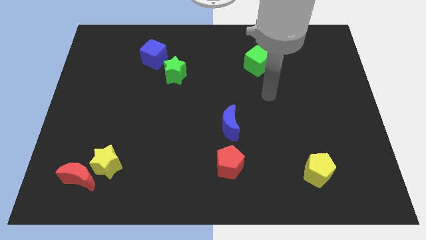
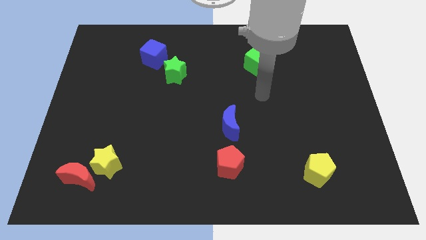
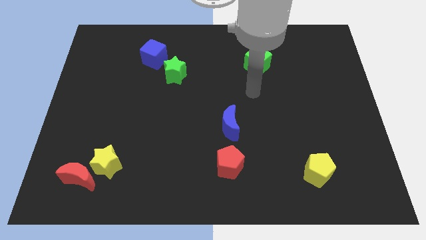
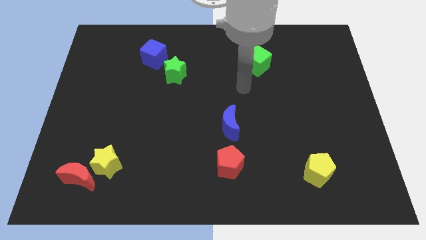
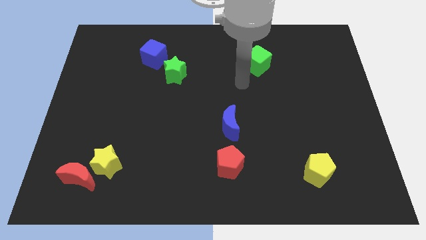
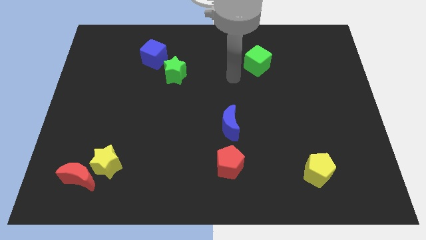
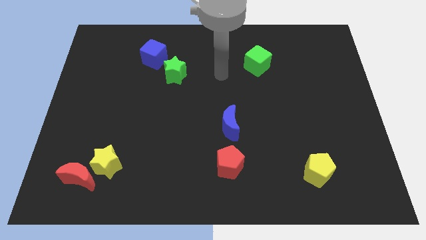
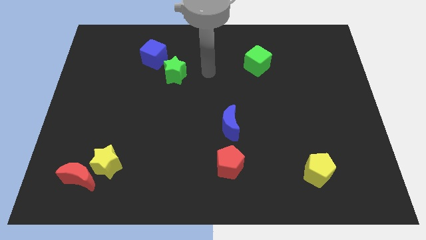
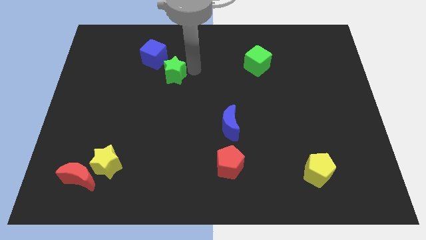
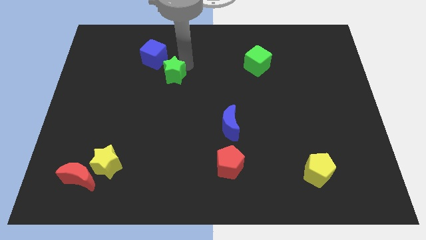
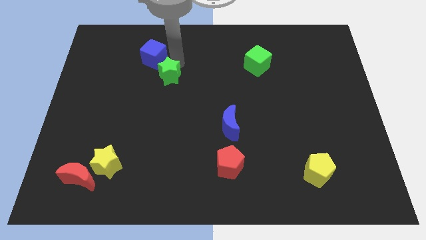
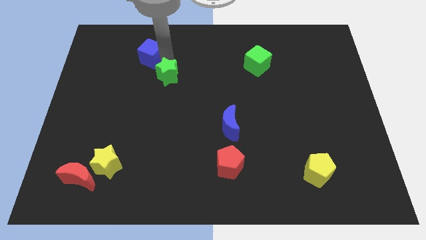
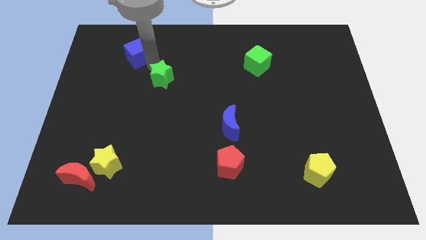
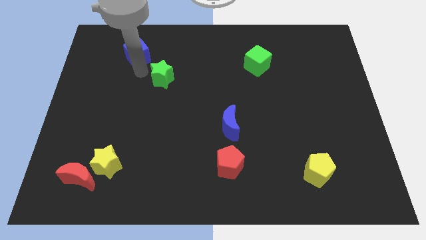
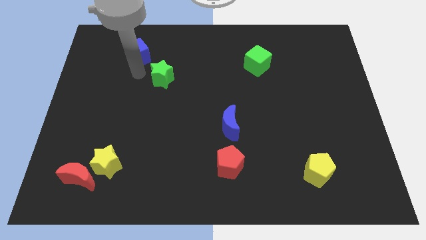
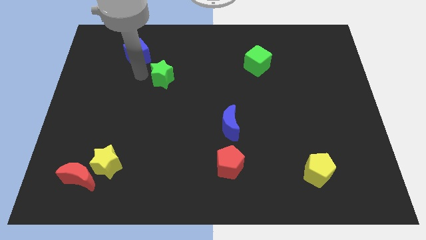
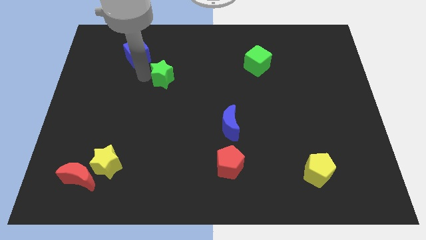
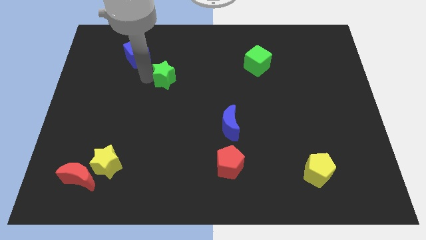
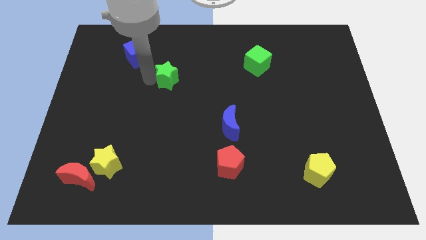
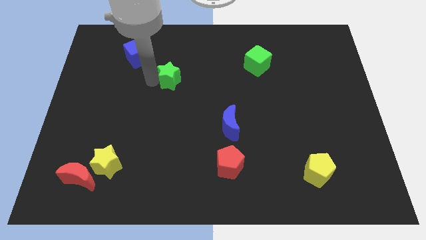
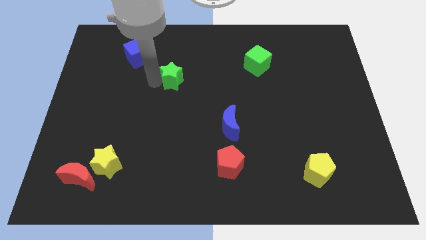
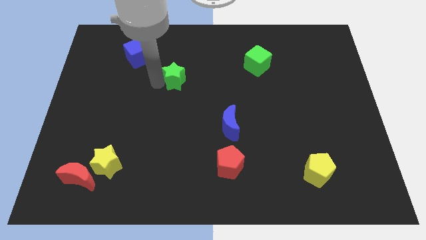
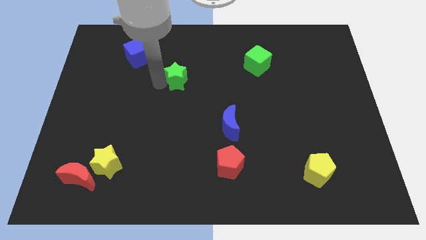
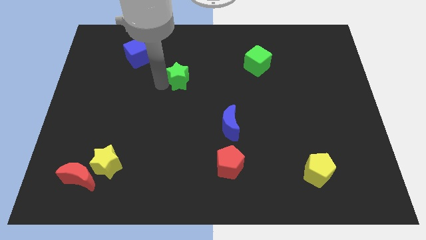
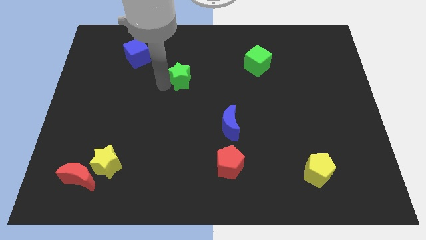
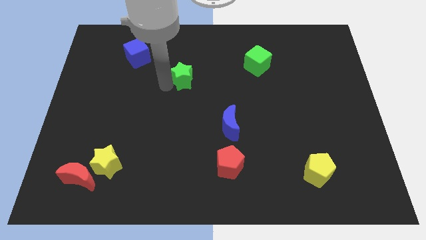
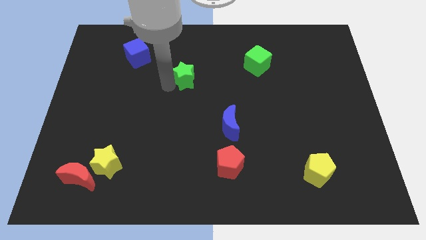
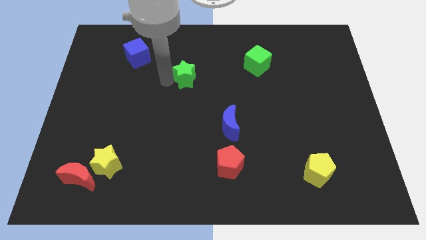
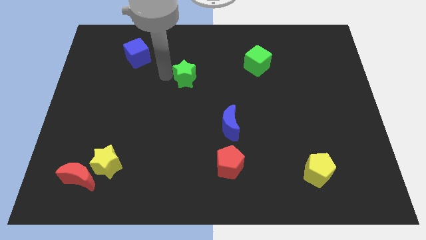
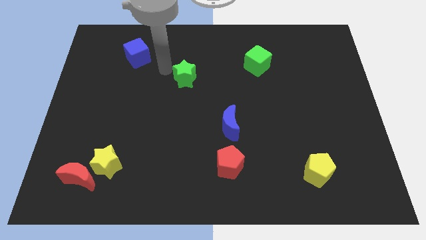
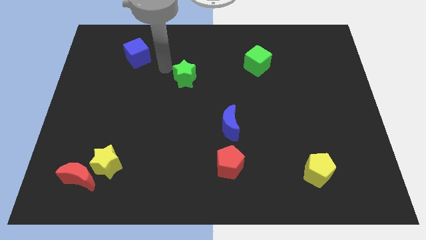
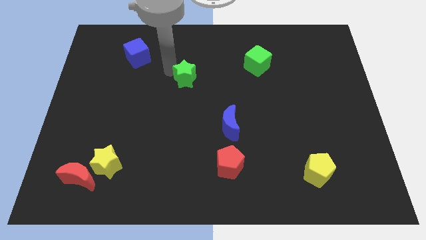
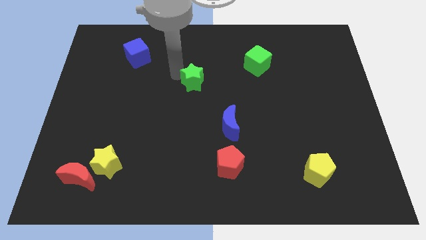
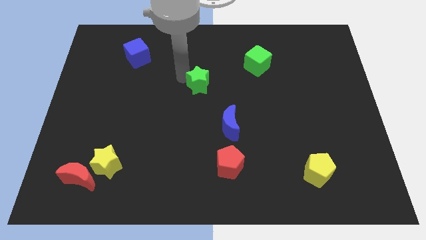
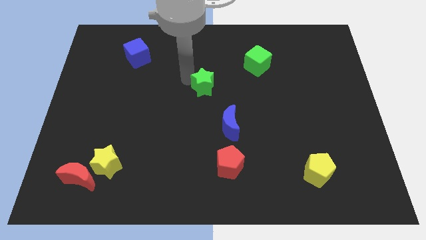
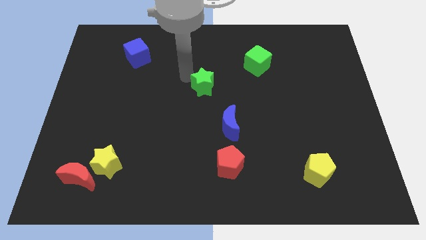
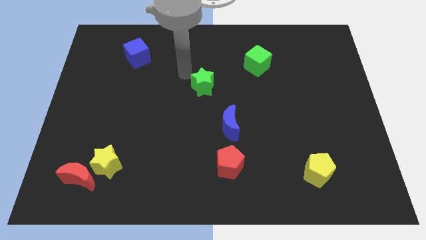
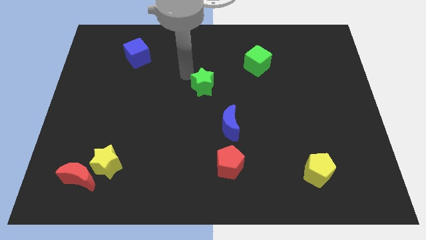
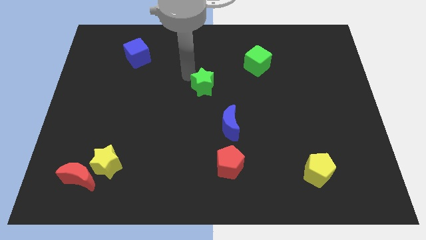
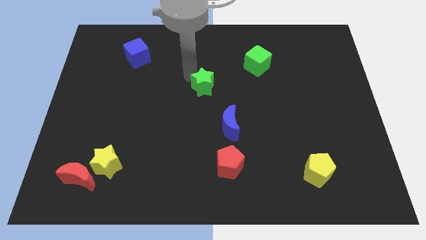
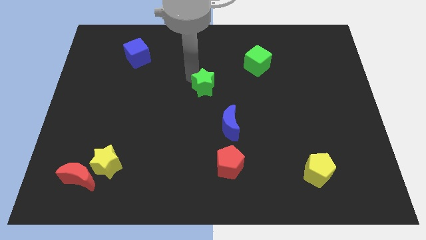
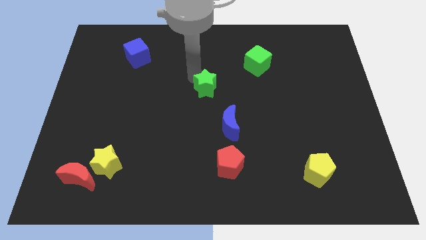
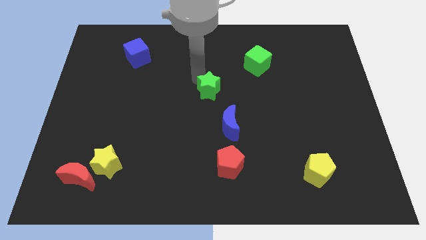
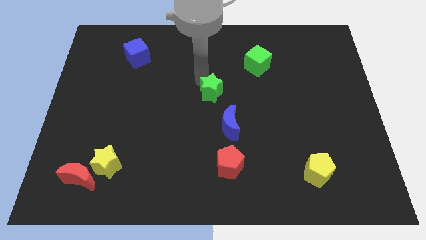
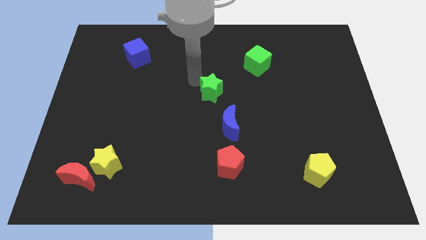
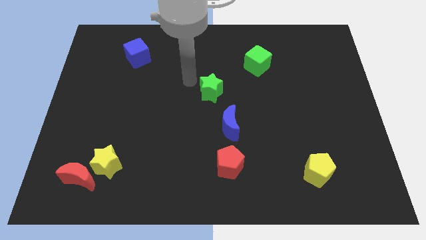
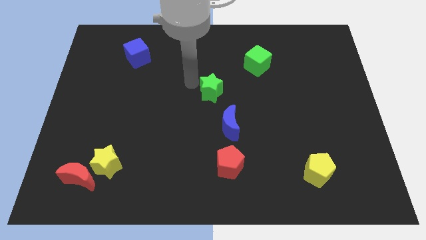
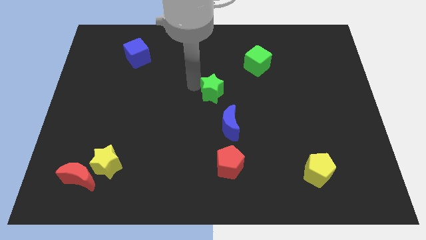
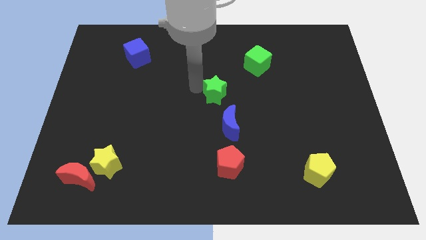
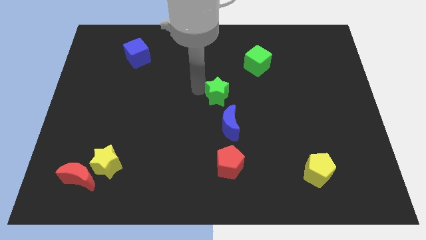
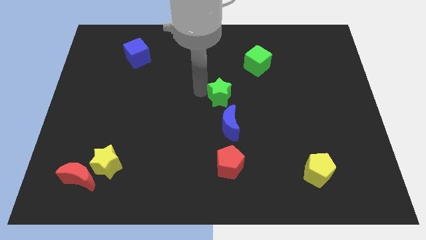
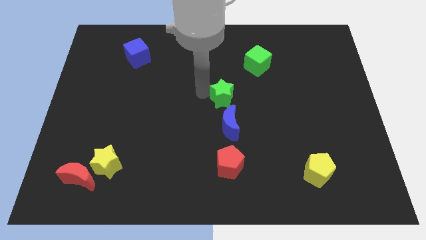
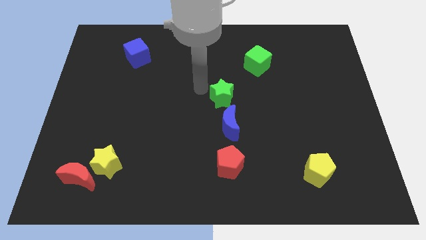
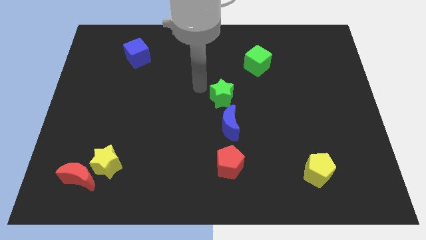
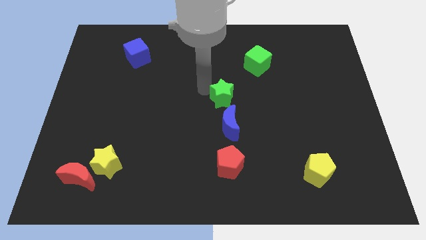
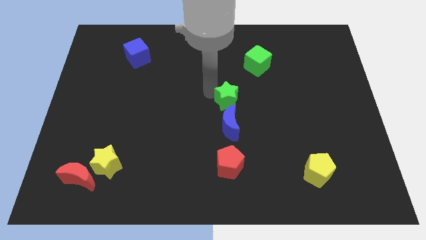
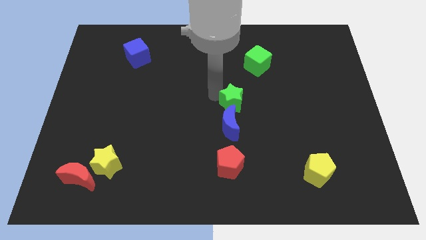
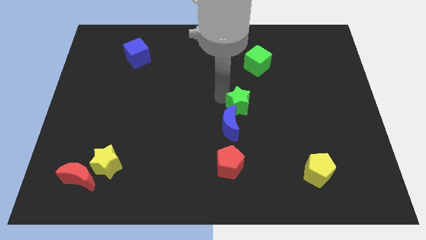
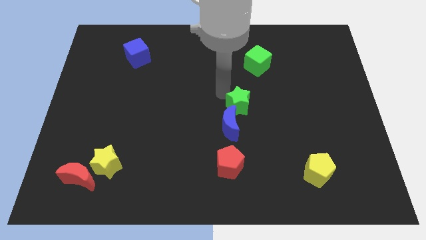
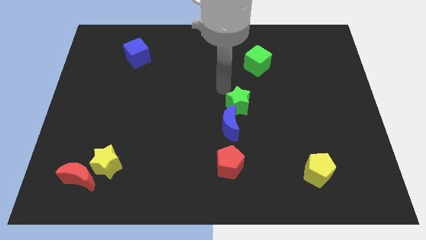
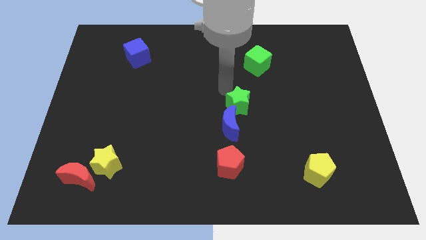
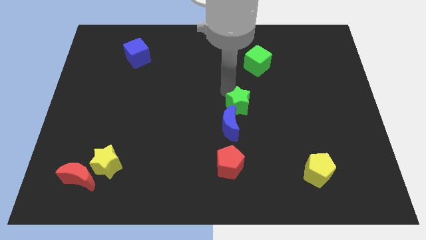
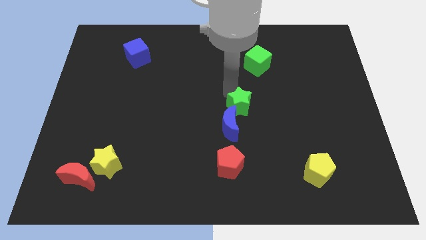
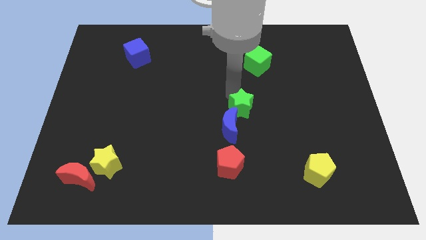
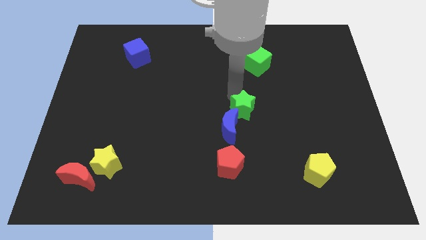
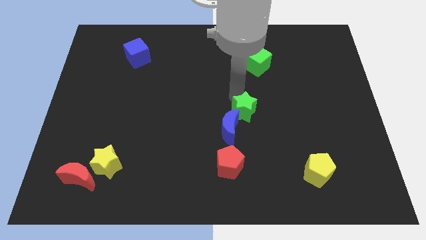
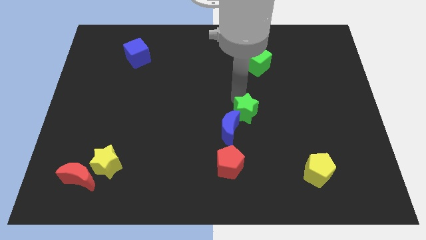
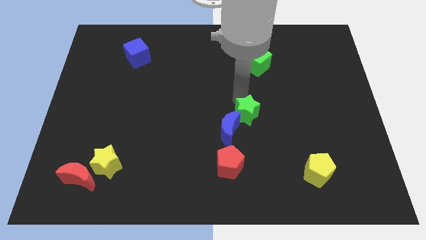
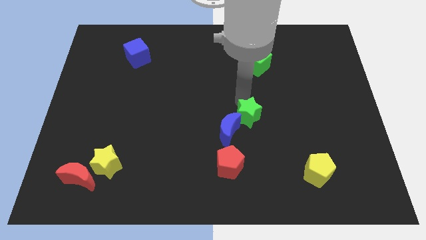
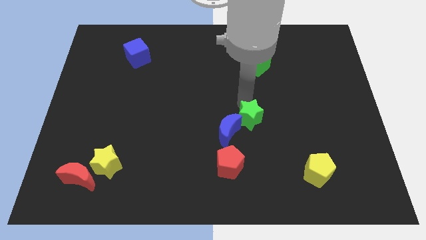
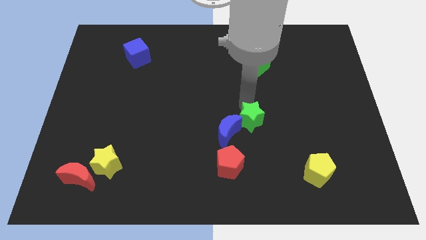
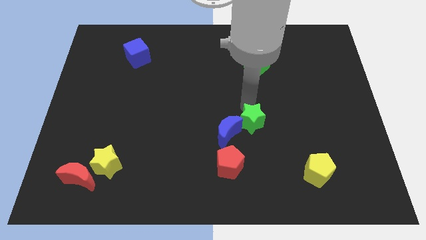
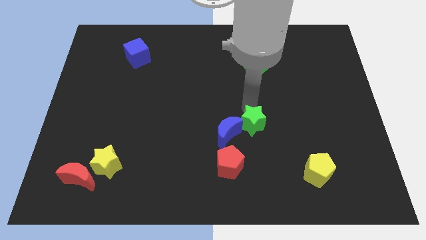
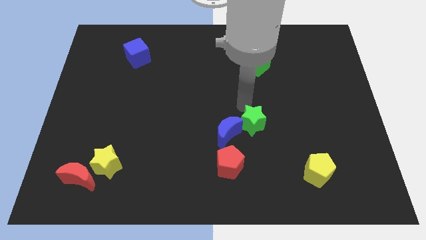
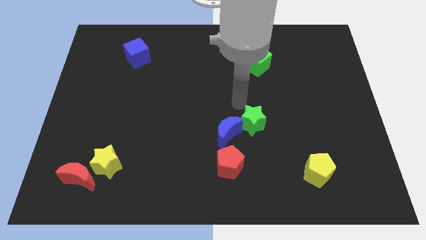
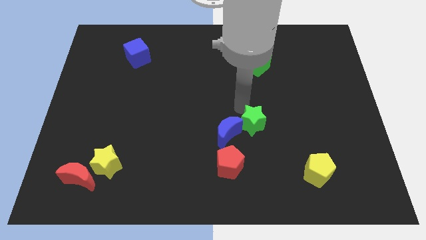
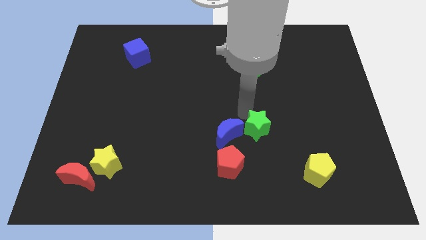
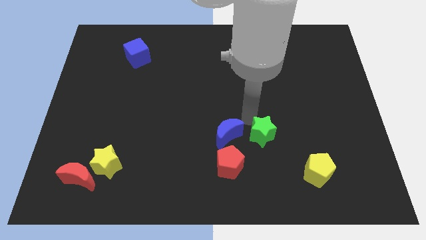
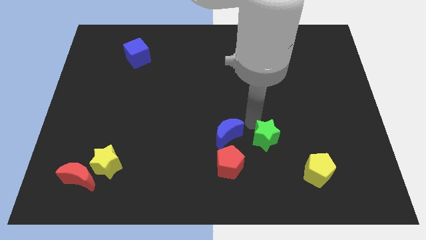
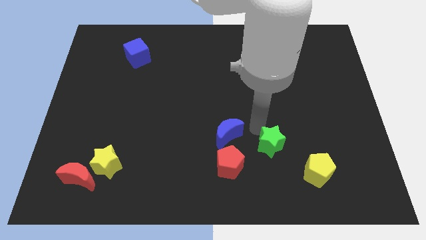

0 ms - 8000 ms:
push the green star just right of the red pentagon
